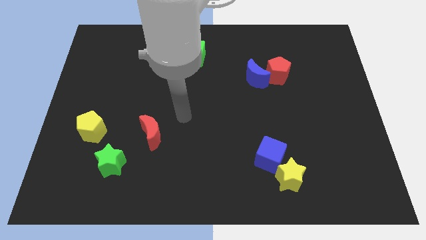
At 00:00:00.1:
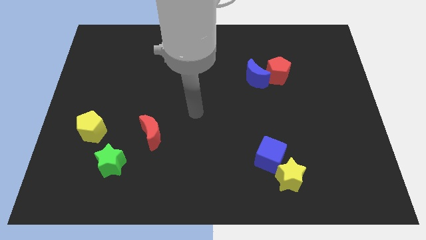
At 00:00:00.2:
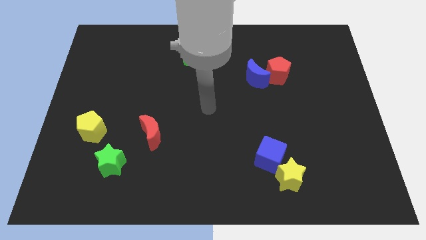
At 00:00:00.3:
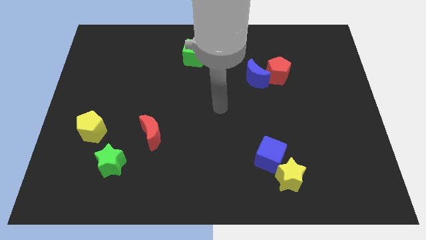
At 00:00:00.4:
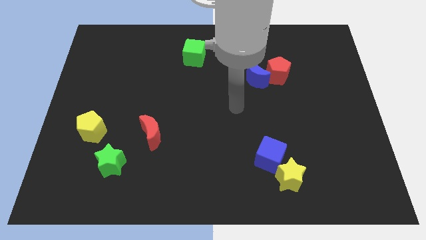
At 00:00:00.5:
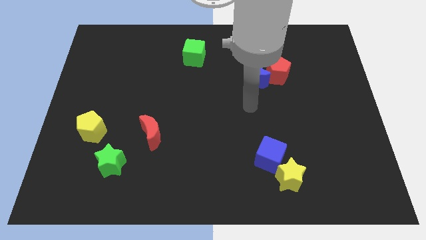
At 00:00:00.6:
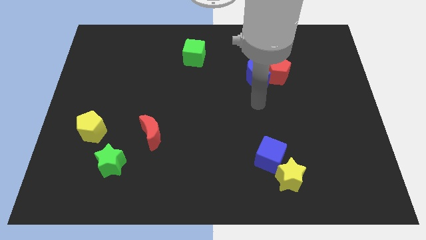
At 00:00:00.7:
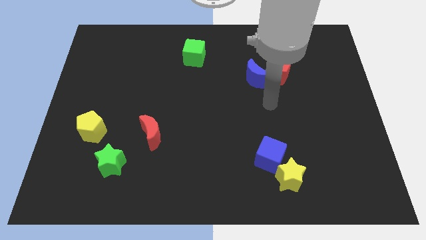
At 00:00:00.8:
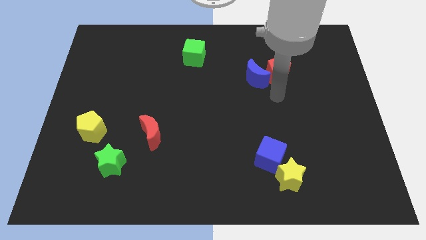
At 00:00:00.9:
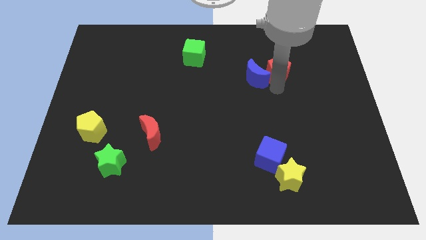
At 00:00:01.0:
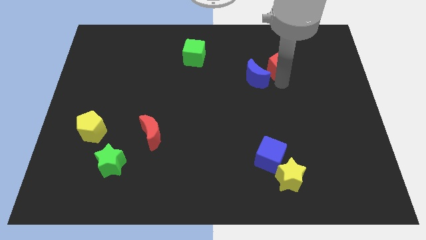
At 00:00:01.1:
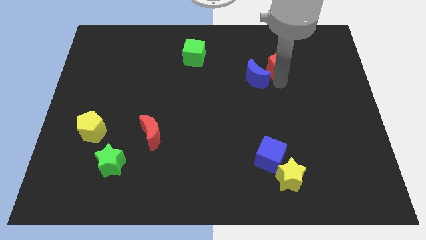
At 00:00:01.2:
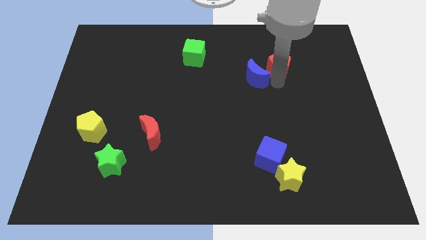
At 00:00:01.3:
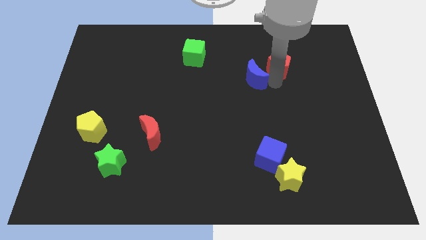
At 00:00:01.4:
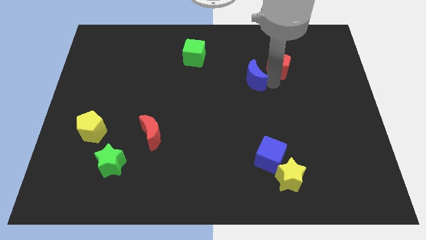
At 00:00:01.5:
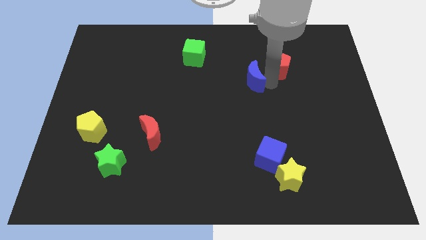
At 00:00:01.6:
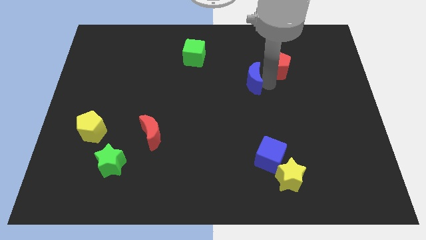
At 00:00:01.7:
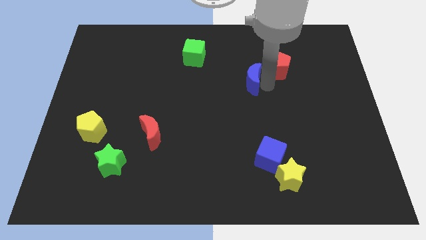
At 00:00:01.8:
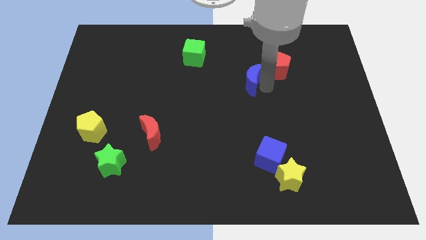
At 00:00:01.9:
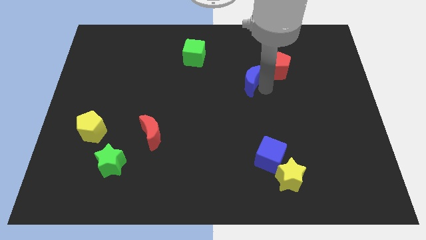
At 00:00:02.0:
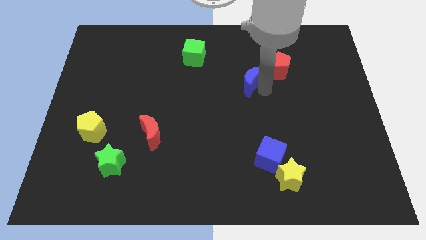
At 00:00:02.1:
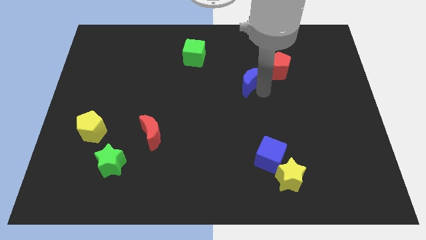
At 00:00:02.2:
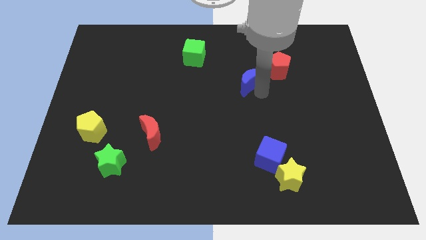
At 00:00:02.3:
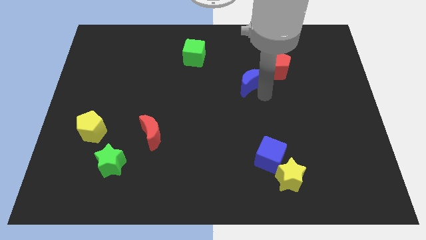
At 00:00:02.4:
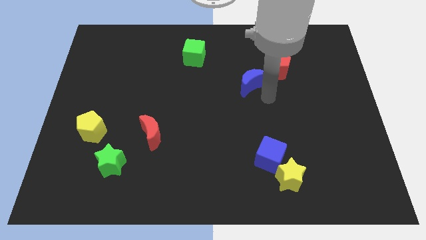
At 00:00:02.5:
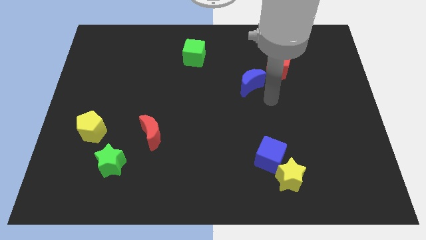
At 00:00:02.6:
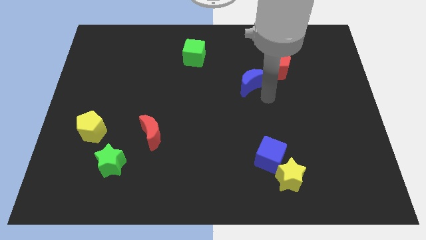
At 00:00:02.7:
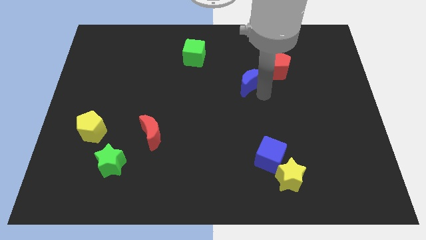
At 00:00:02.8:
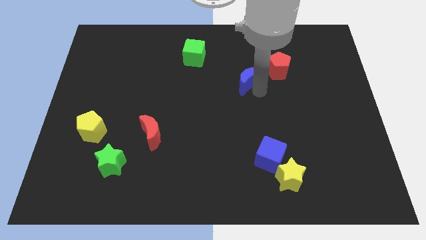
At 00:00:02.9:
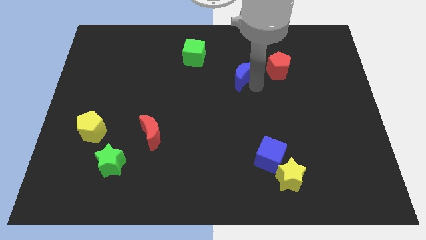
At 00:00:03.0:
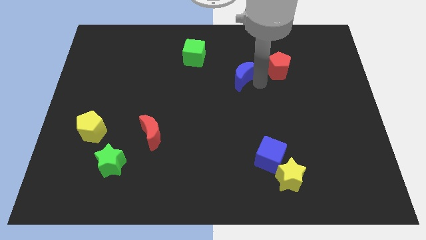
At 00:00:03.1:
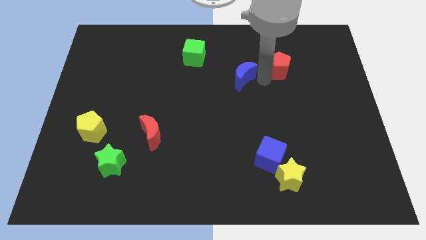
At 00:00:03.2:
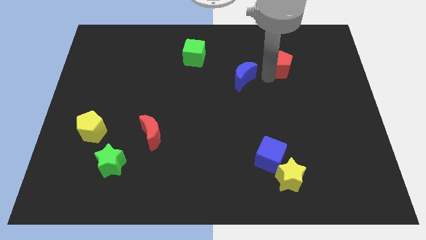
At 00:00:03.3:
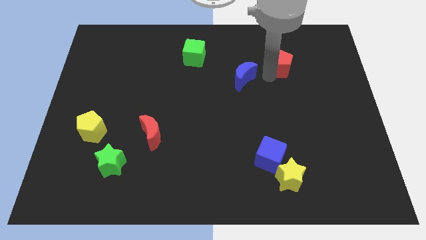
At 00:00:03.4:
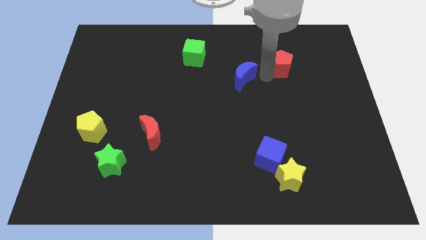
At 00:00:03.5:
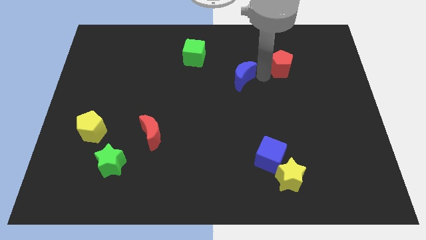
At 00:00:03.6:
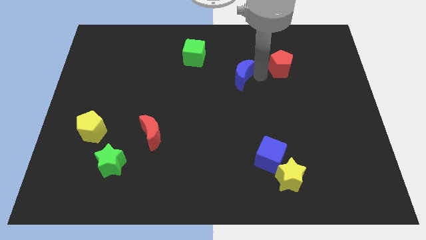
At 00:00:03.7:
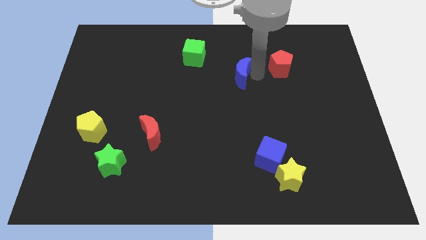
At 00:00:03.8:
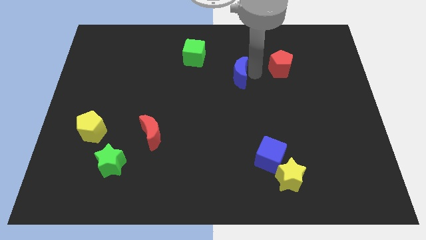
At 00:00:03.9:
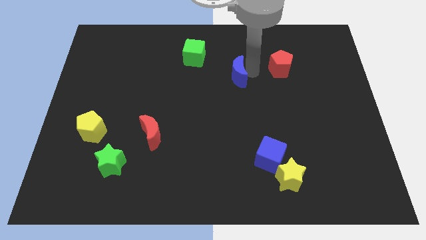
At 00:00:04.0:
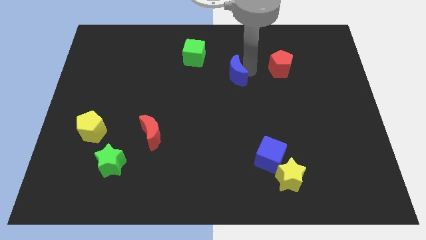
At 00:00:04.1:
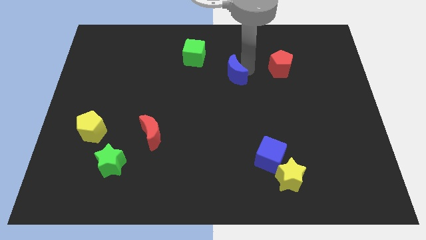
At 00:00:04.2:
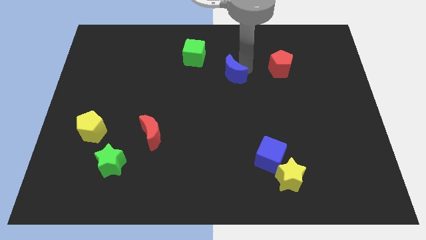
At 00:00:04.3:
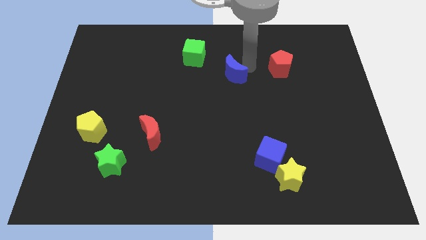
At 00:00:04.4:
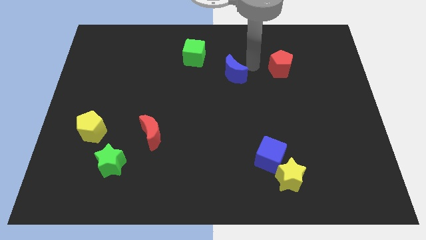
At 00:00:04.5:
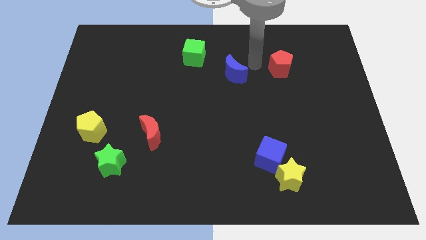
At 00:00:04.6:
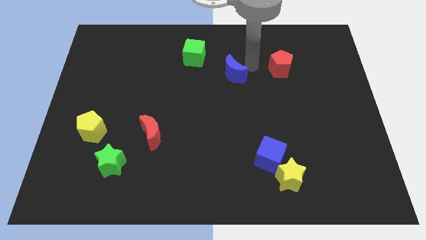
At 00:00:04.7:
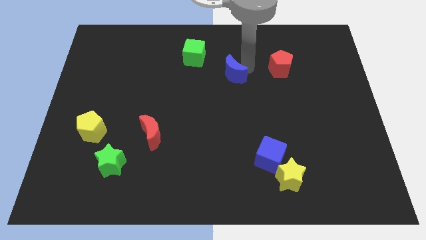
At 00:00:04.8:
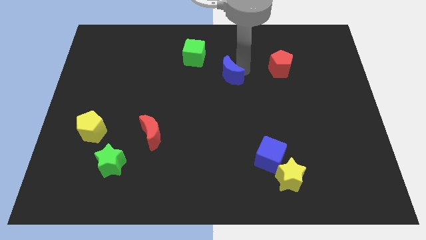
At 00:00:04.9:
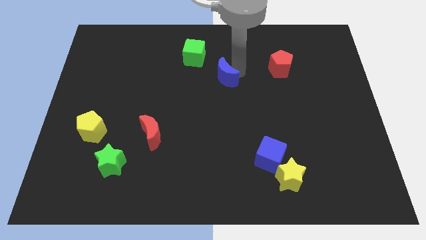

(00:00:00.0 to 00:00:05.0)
slide the blue moon left a little

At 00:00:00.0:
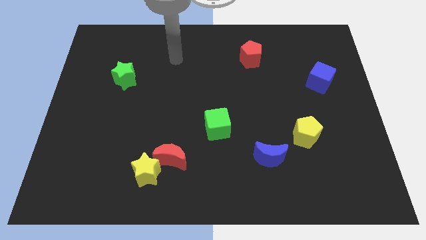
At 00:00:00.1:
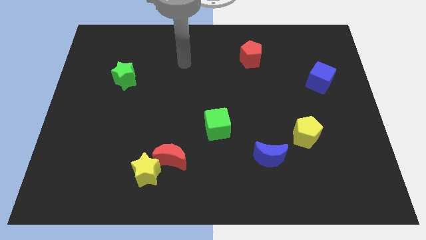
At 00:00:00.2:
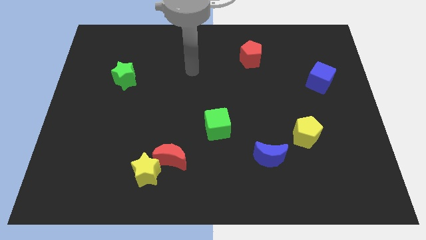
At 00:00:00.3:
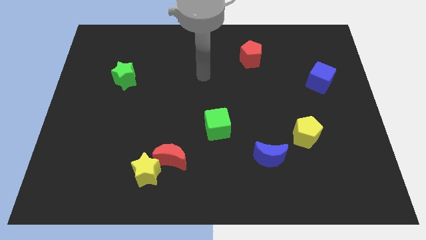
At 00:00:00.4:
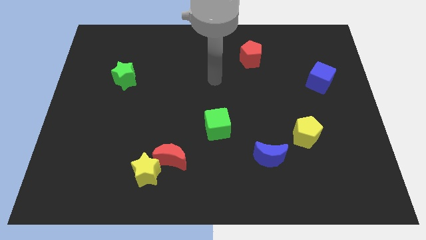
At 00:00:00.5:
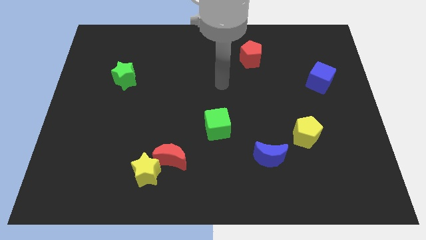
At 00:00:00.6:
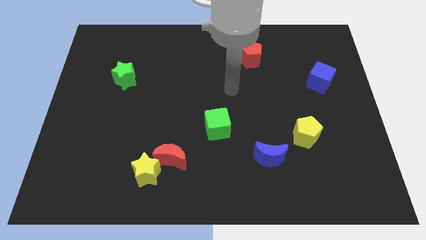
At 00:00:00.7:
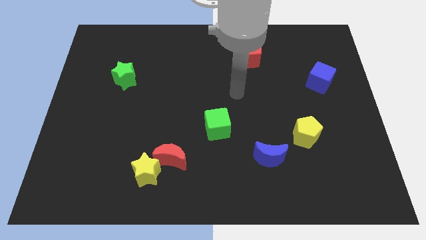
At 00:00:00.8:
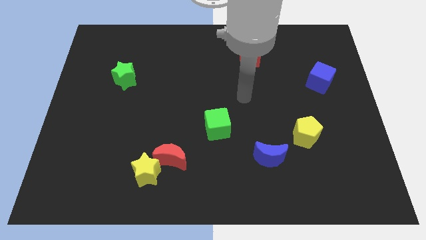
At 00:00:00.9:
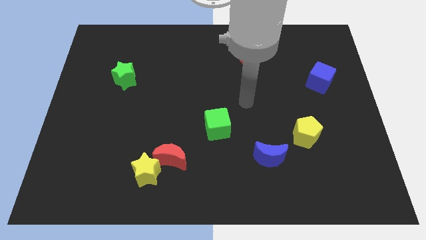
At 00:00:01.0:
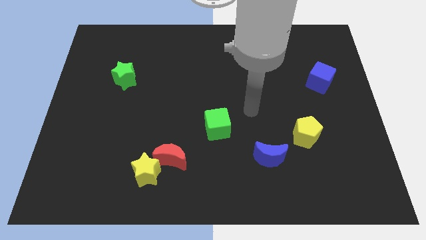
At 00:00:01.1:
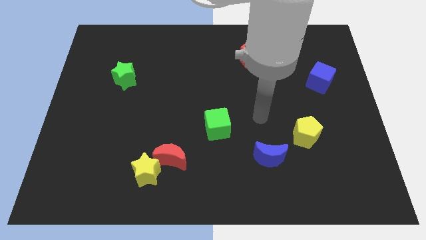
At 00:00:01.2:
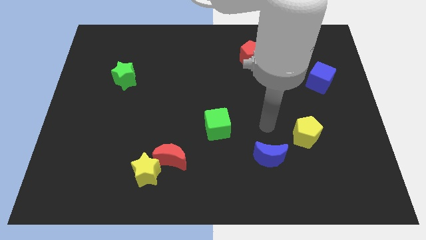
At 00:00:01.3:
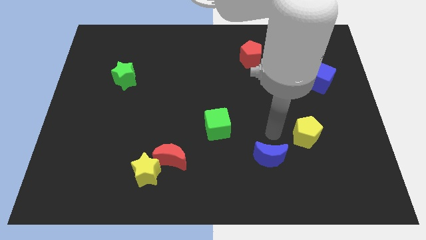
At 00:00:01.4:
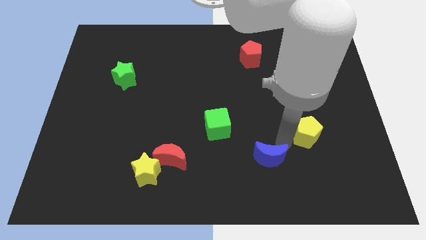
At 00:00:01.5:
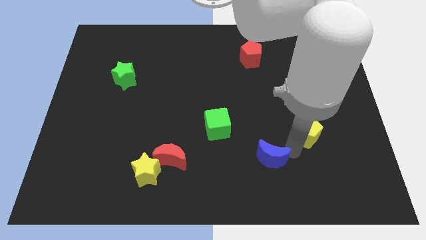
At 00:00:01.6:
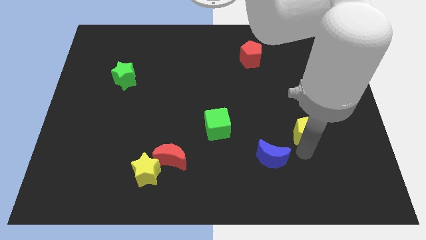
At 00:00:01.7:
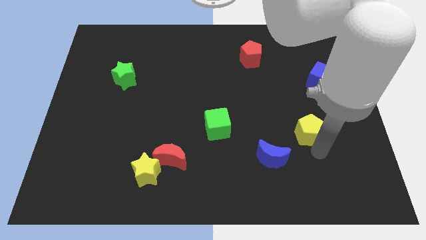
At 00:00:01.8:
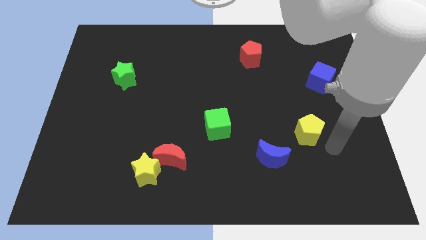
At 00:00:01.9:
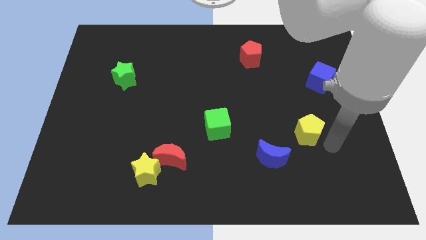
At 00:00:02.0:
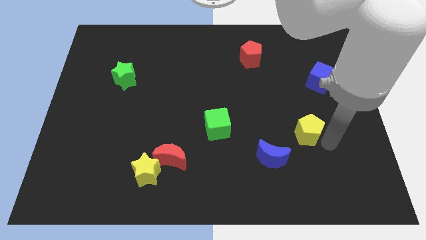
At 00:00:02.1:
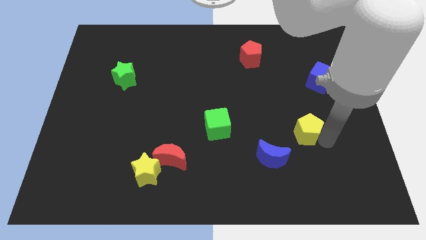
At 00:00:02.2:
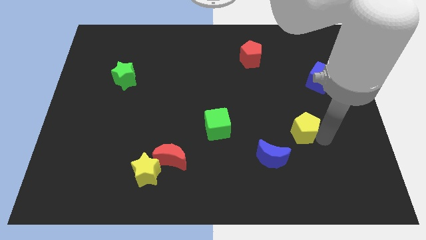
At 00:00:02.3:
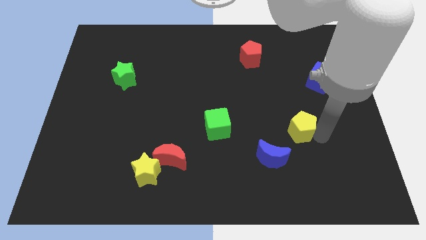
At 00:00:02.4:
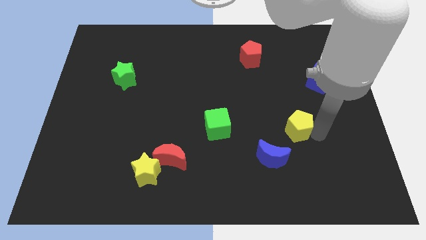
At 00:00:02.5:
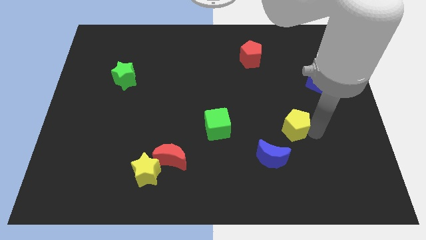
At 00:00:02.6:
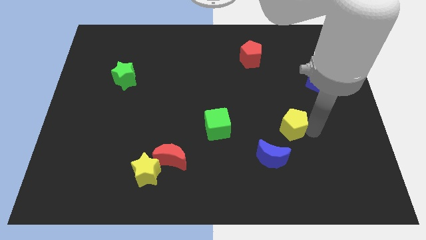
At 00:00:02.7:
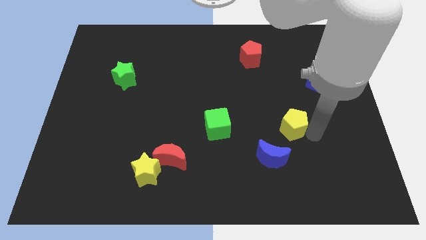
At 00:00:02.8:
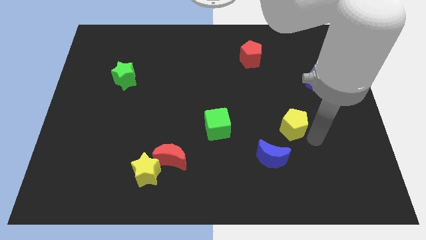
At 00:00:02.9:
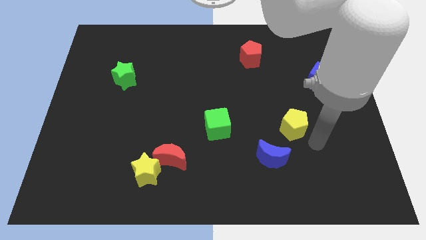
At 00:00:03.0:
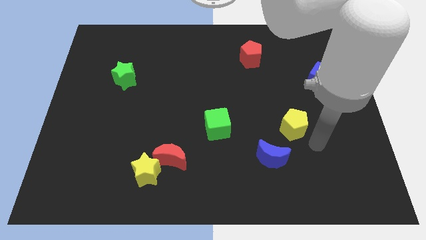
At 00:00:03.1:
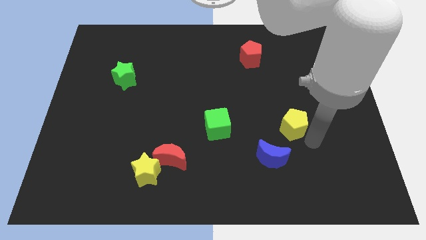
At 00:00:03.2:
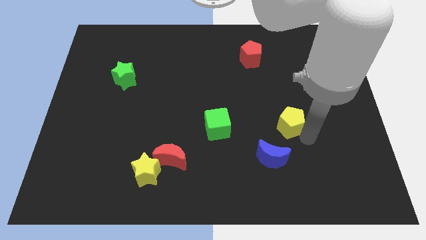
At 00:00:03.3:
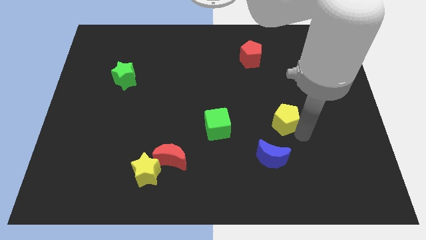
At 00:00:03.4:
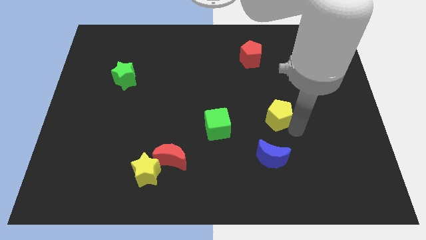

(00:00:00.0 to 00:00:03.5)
slightly slide the yellow pentagon up and left diagonally
